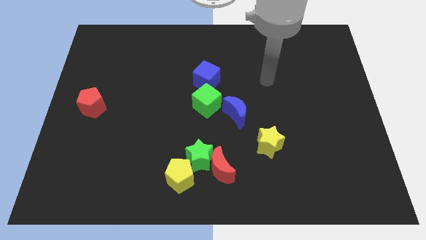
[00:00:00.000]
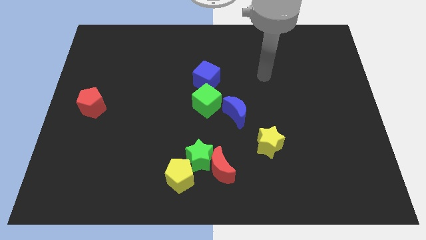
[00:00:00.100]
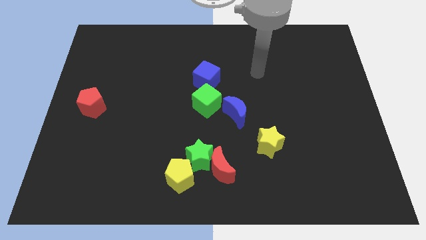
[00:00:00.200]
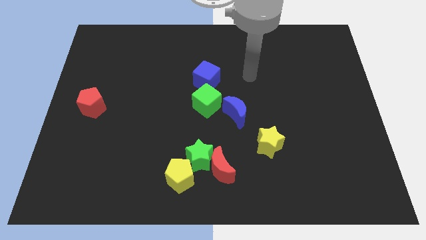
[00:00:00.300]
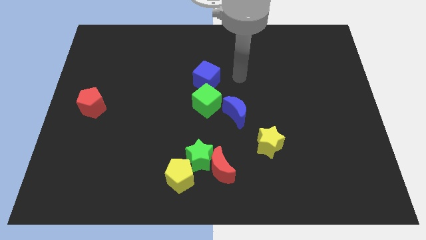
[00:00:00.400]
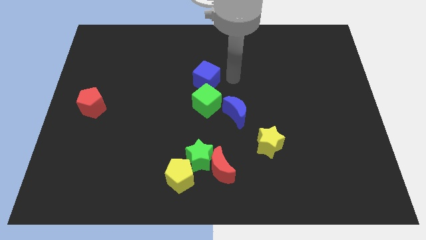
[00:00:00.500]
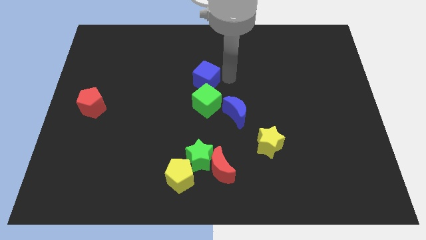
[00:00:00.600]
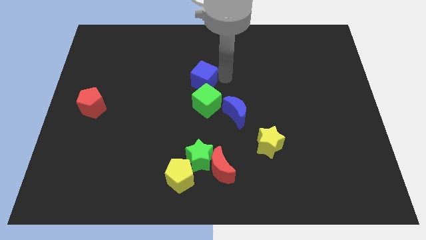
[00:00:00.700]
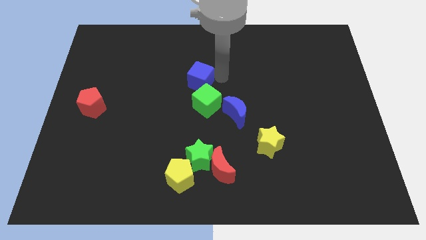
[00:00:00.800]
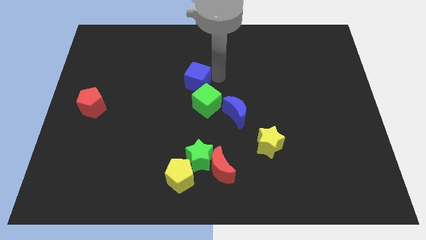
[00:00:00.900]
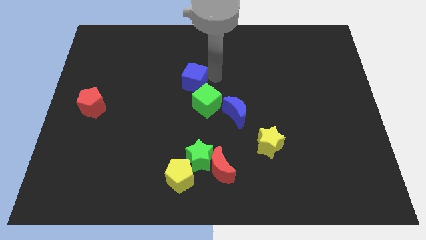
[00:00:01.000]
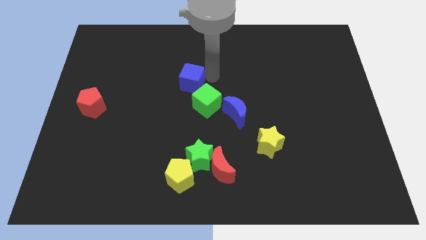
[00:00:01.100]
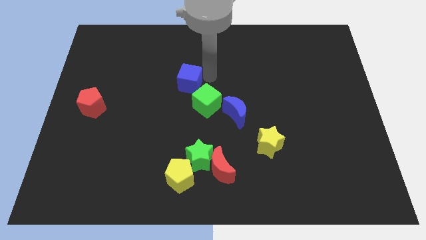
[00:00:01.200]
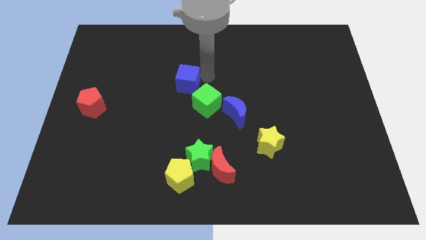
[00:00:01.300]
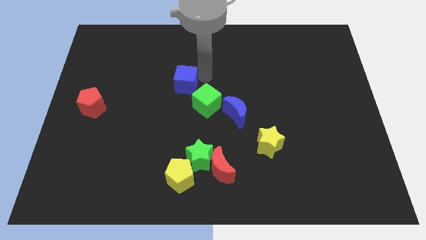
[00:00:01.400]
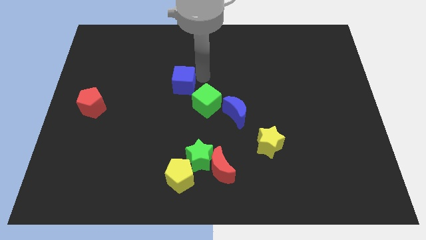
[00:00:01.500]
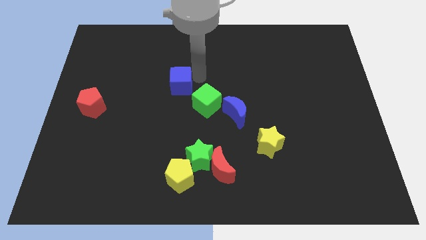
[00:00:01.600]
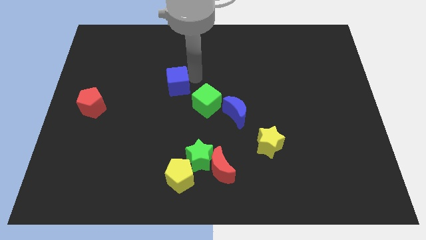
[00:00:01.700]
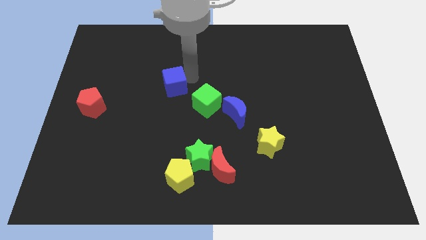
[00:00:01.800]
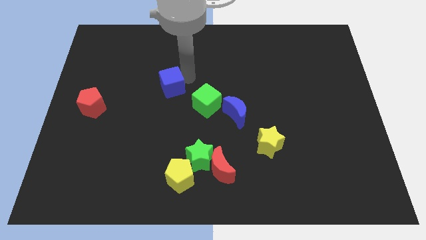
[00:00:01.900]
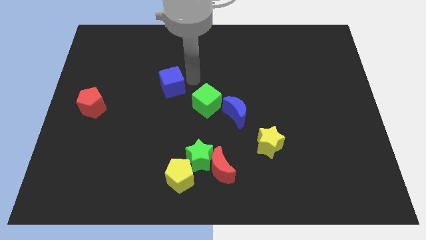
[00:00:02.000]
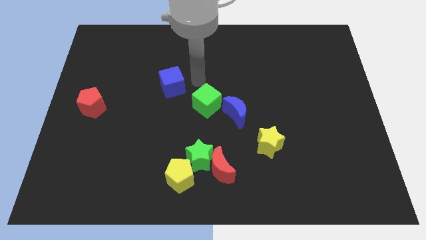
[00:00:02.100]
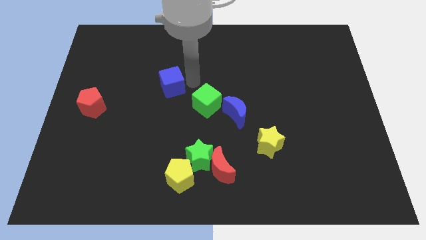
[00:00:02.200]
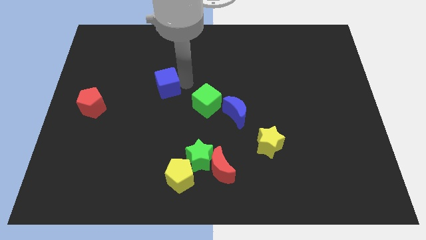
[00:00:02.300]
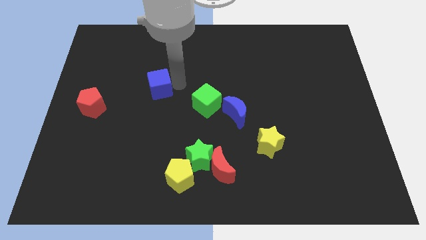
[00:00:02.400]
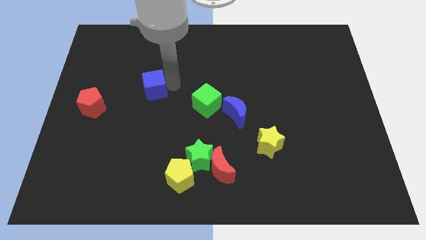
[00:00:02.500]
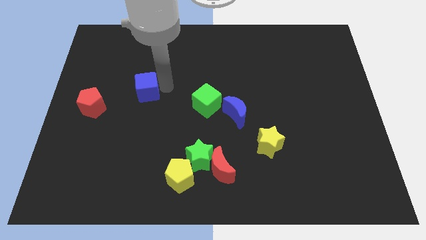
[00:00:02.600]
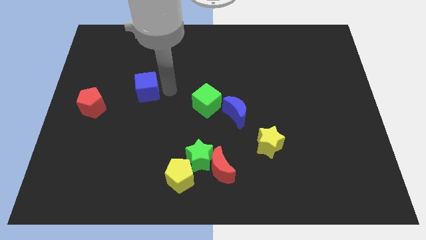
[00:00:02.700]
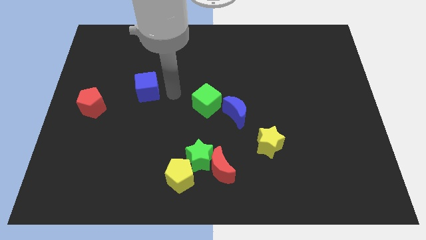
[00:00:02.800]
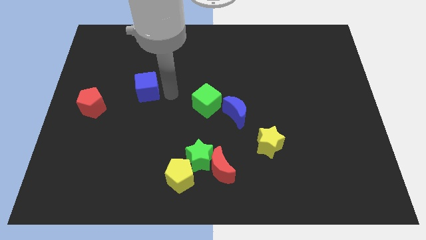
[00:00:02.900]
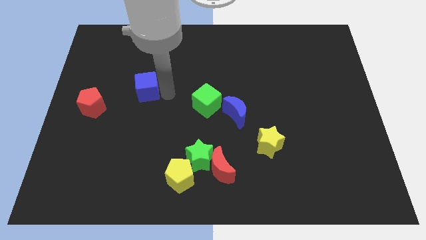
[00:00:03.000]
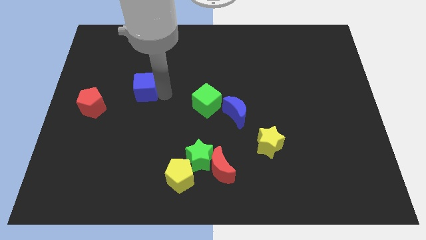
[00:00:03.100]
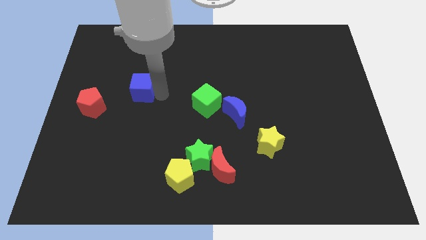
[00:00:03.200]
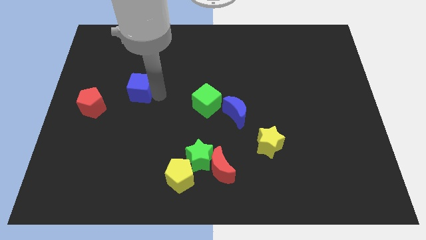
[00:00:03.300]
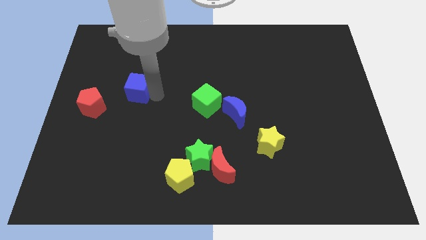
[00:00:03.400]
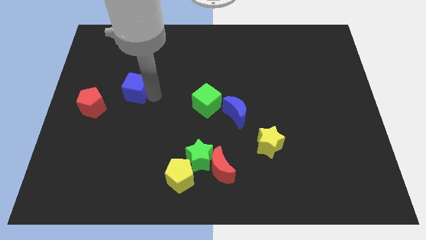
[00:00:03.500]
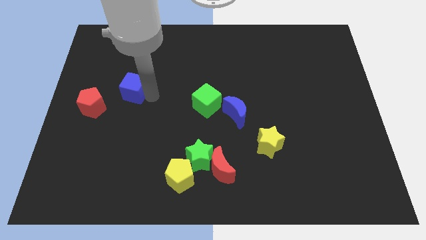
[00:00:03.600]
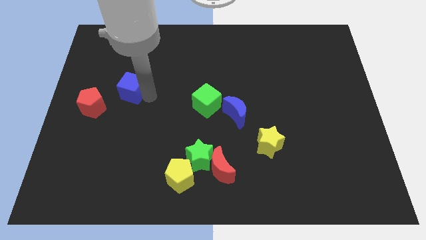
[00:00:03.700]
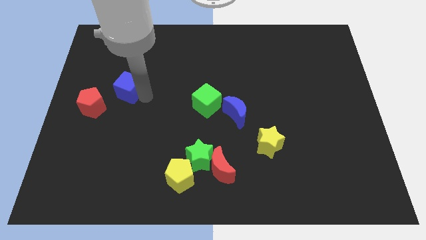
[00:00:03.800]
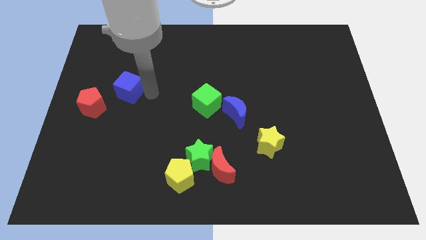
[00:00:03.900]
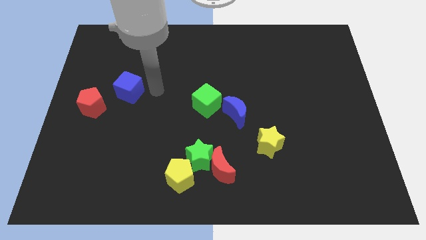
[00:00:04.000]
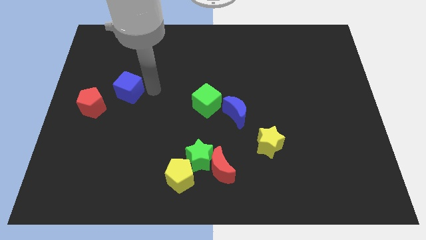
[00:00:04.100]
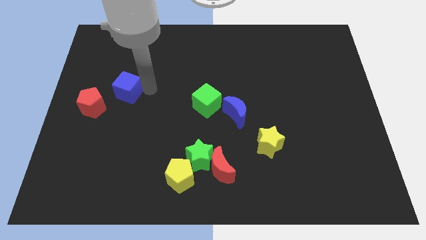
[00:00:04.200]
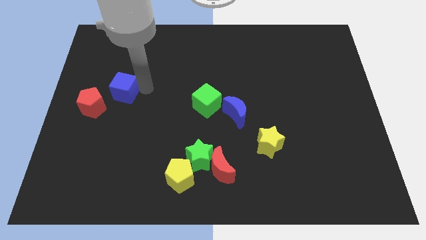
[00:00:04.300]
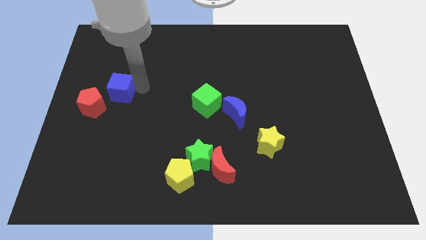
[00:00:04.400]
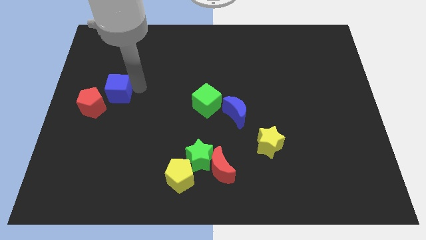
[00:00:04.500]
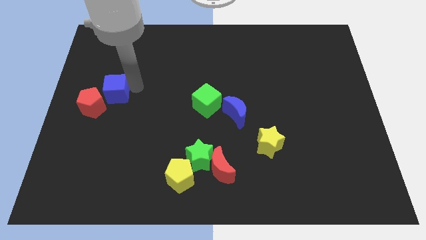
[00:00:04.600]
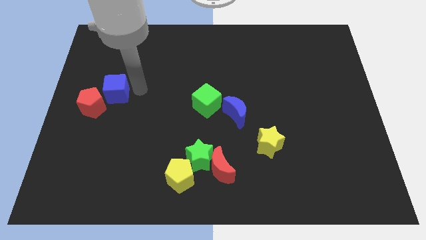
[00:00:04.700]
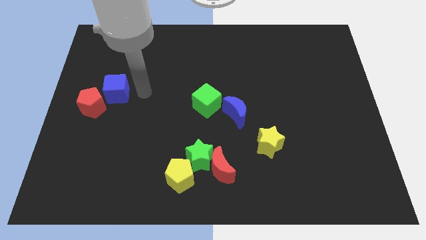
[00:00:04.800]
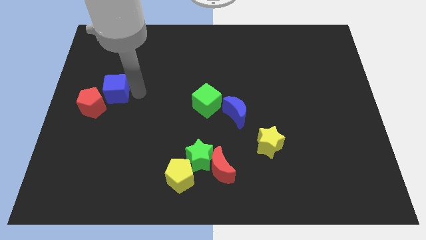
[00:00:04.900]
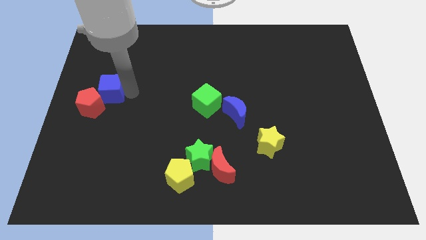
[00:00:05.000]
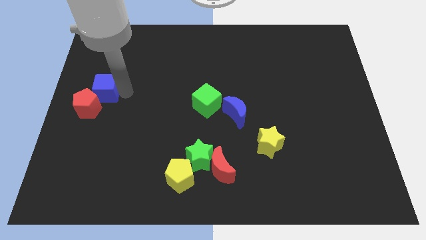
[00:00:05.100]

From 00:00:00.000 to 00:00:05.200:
slide the blue cube to the left side

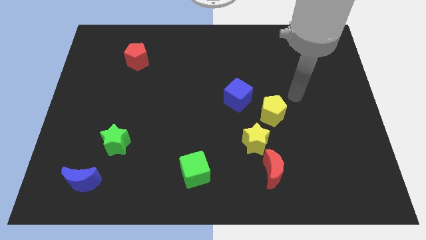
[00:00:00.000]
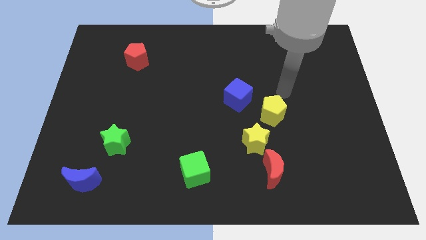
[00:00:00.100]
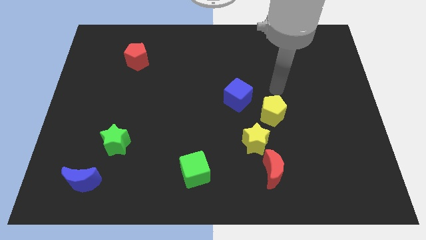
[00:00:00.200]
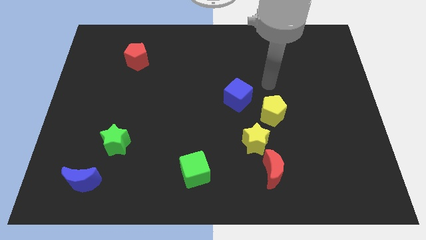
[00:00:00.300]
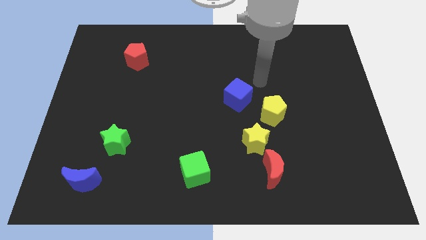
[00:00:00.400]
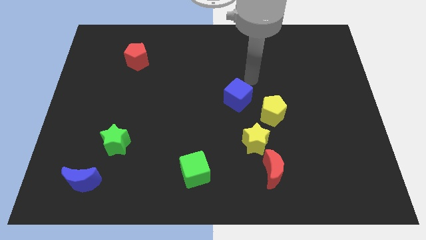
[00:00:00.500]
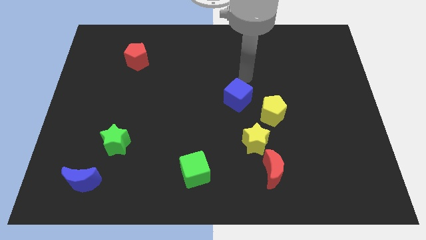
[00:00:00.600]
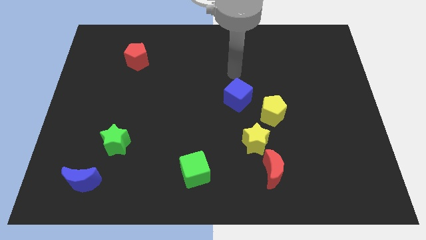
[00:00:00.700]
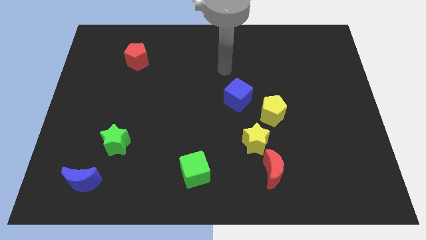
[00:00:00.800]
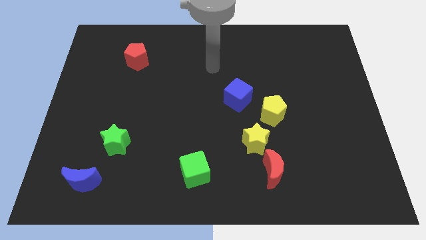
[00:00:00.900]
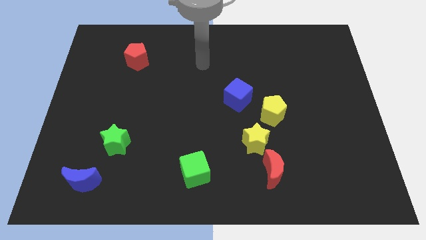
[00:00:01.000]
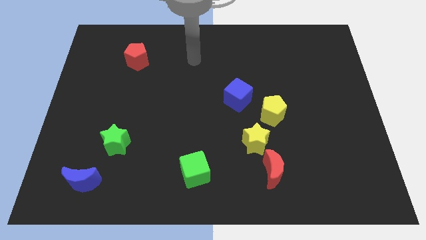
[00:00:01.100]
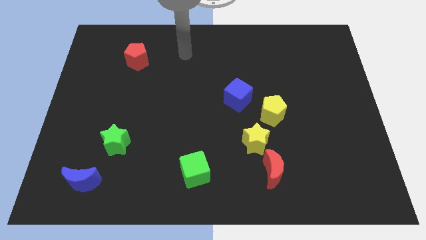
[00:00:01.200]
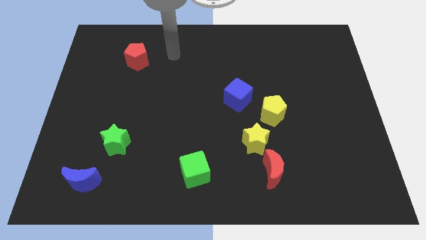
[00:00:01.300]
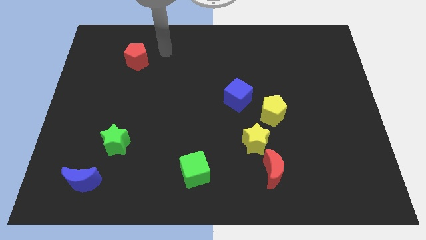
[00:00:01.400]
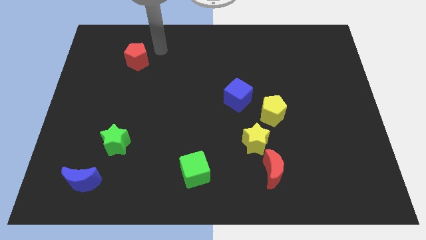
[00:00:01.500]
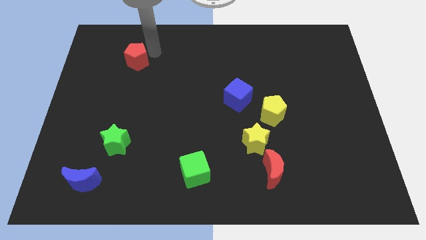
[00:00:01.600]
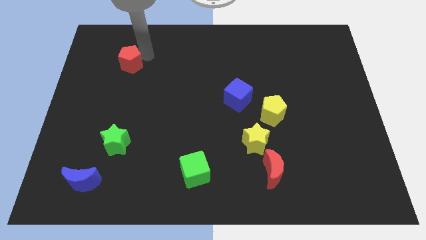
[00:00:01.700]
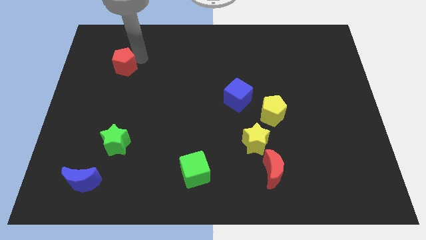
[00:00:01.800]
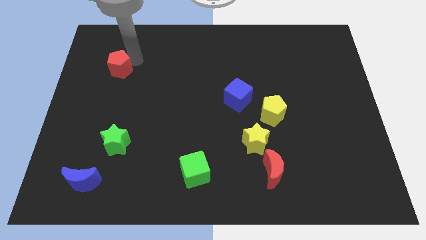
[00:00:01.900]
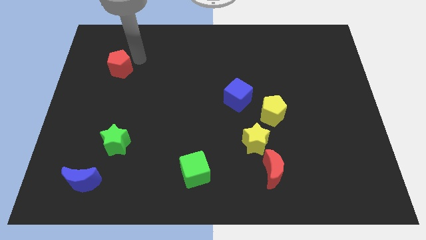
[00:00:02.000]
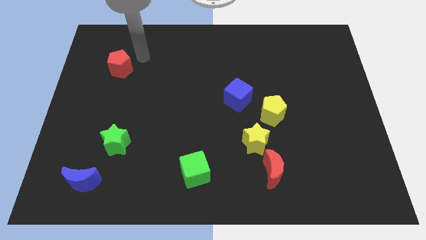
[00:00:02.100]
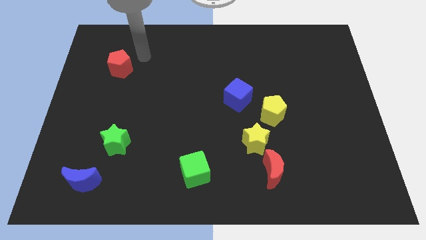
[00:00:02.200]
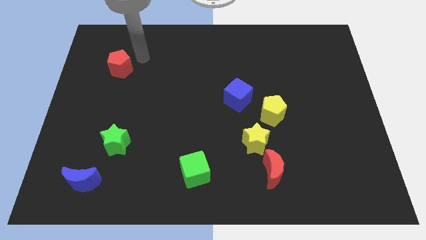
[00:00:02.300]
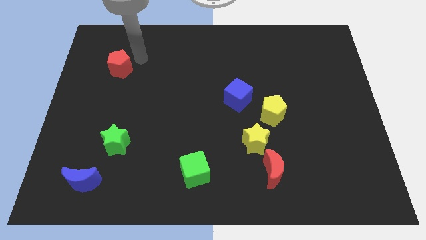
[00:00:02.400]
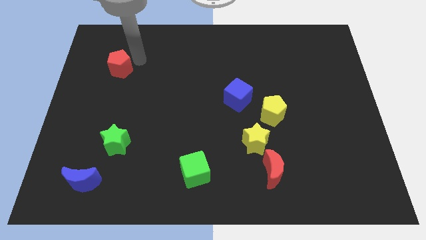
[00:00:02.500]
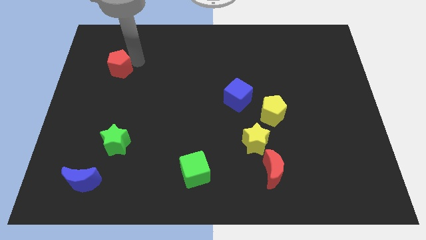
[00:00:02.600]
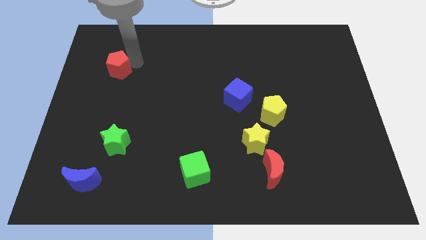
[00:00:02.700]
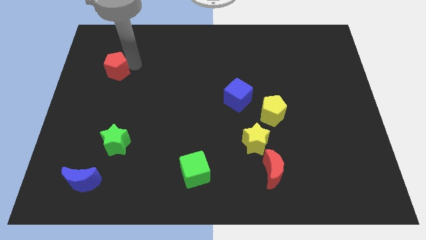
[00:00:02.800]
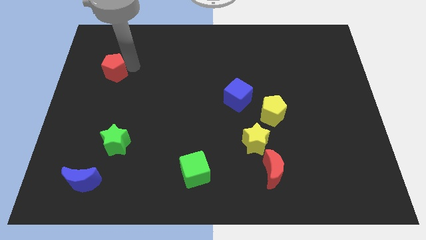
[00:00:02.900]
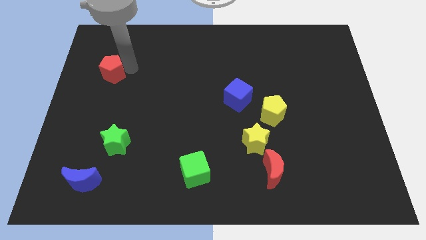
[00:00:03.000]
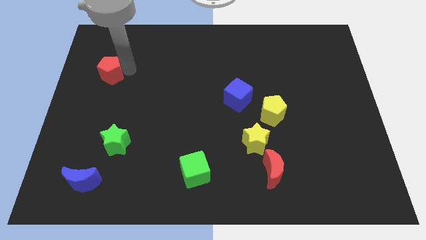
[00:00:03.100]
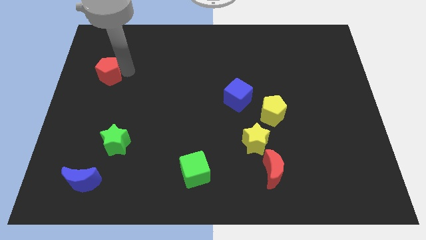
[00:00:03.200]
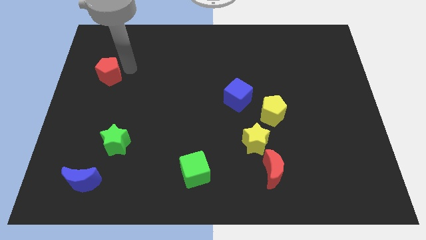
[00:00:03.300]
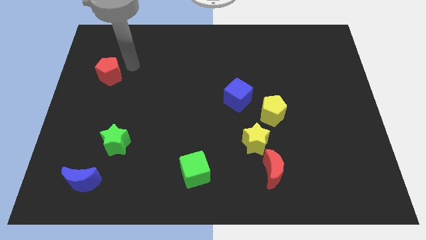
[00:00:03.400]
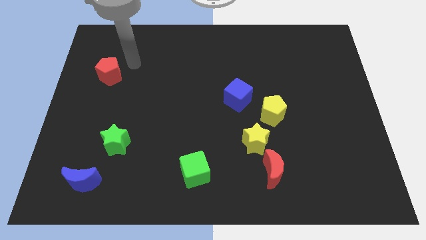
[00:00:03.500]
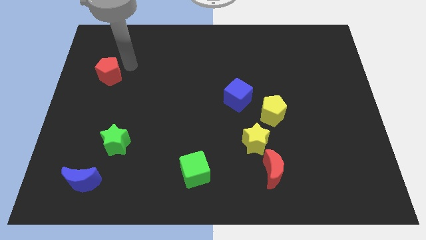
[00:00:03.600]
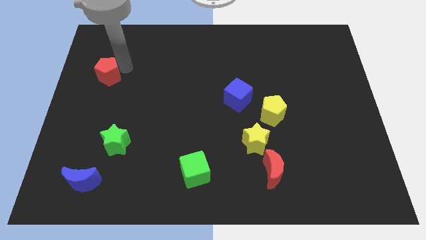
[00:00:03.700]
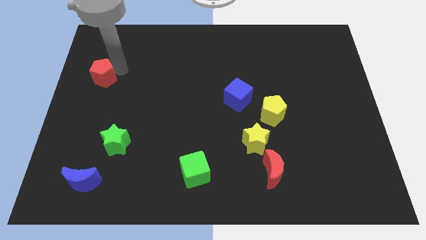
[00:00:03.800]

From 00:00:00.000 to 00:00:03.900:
move the red pentagon to the left side of the board
